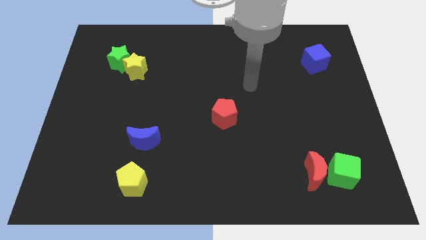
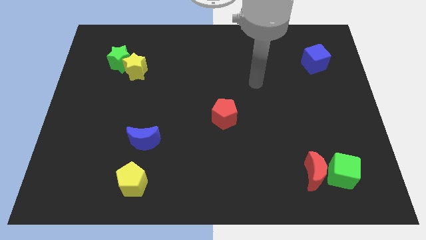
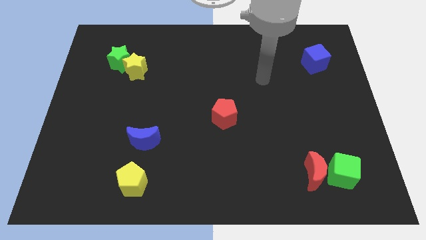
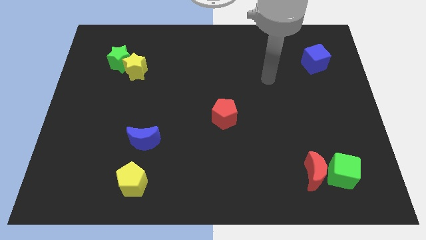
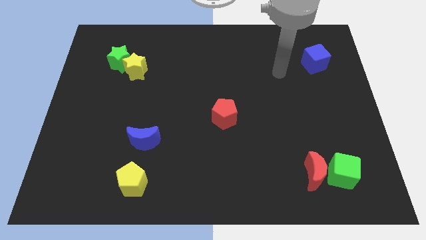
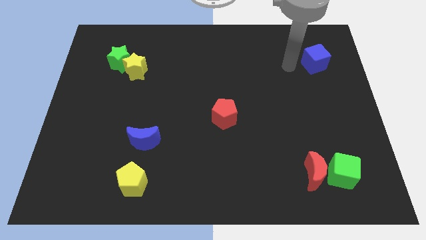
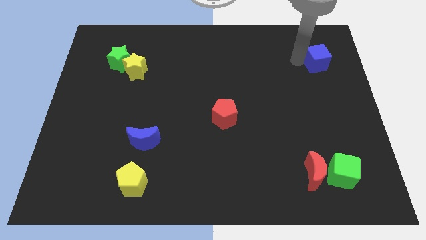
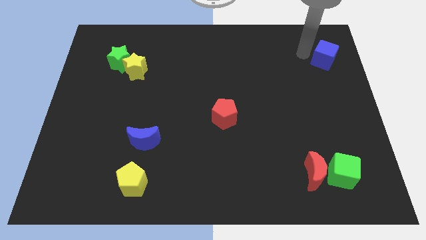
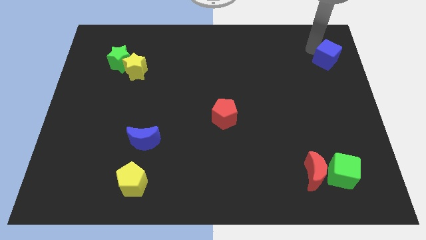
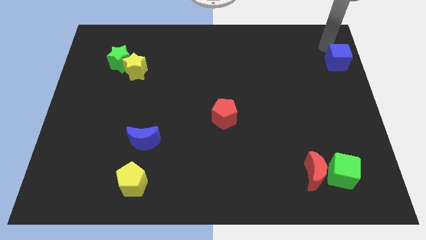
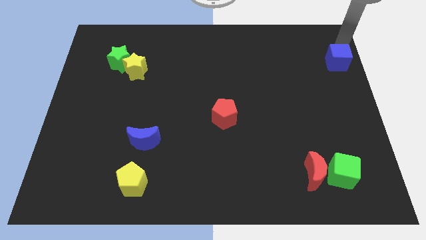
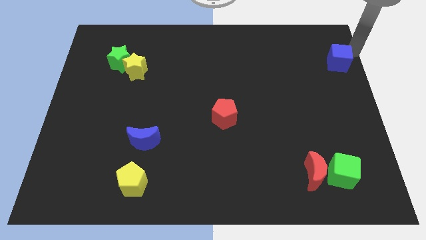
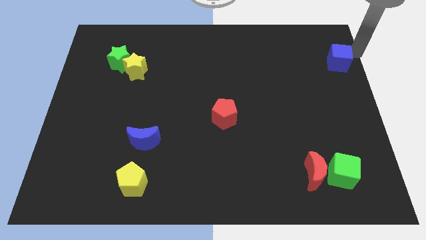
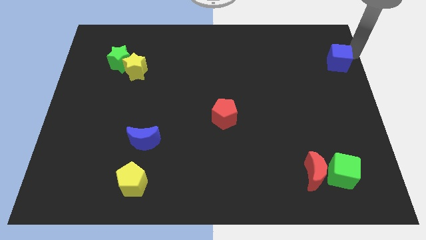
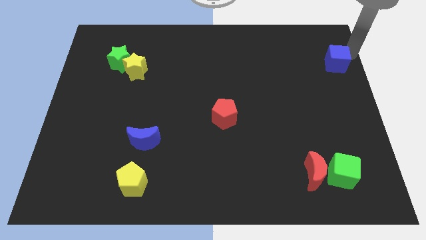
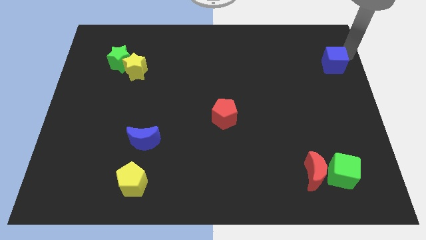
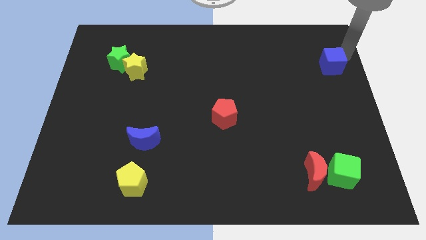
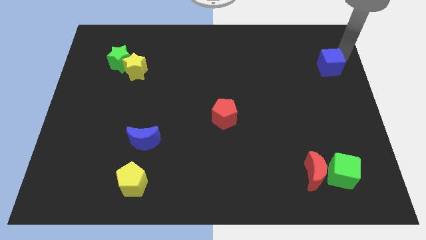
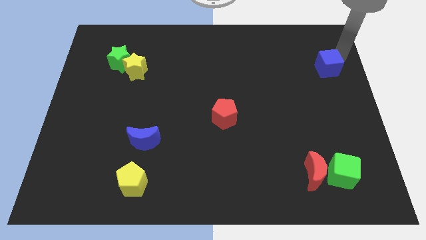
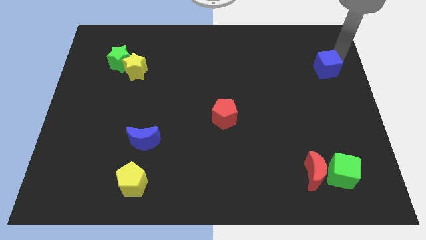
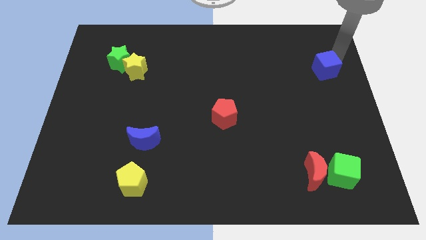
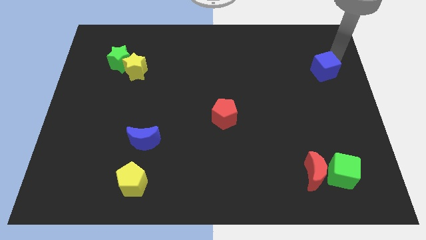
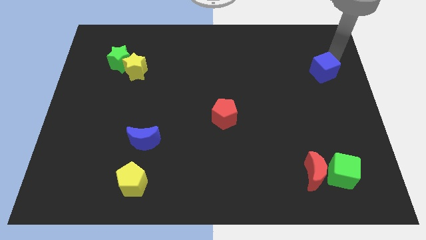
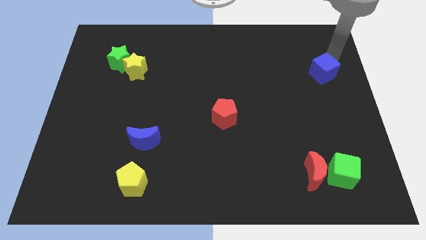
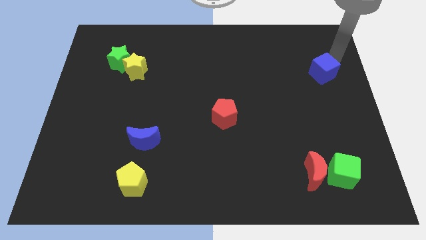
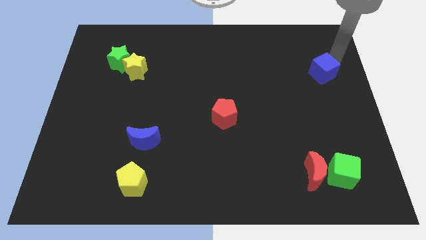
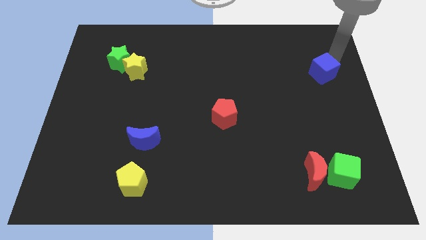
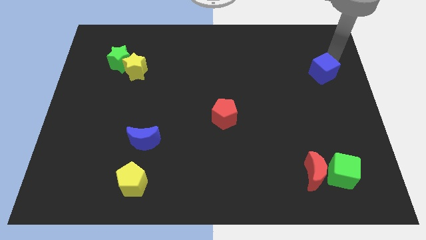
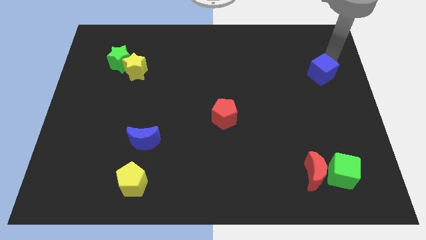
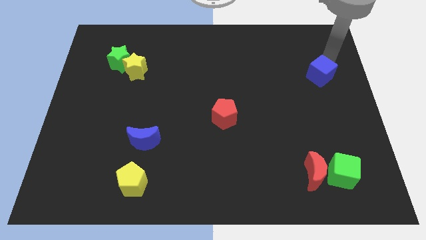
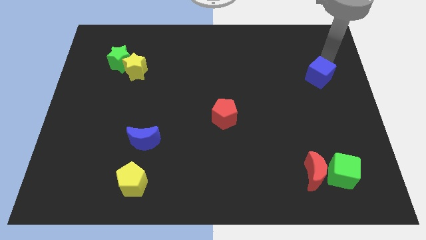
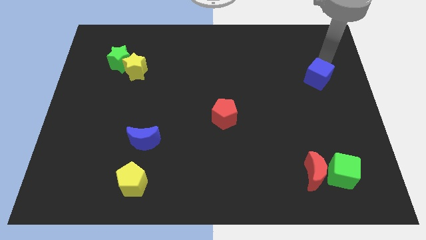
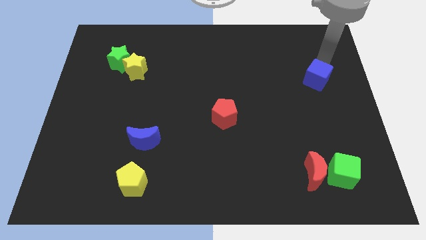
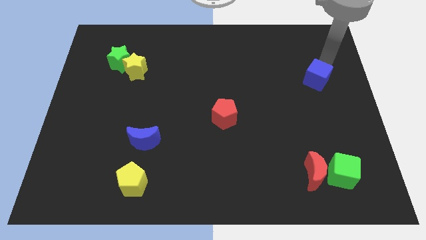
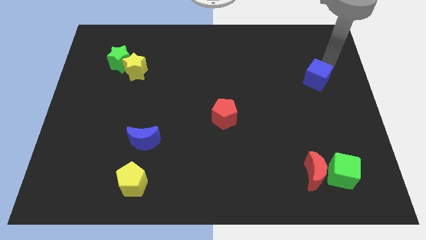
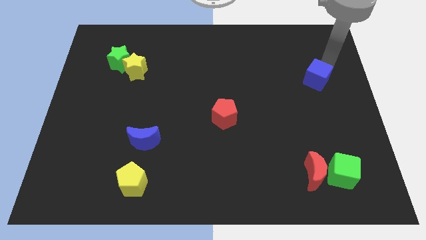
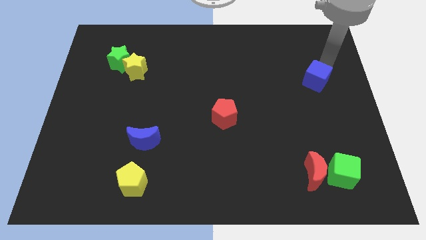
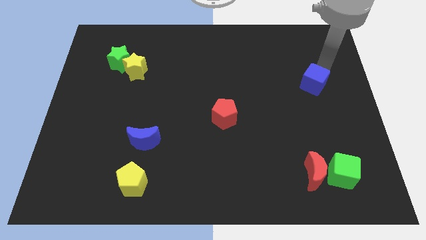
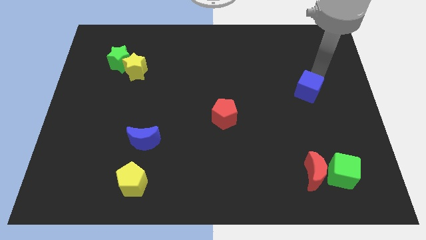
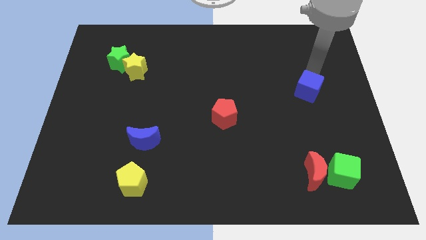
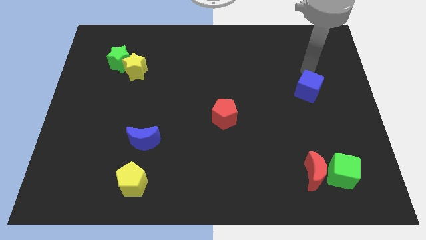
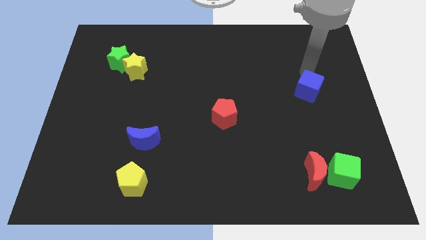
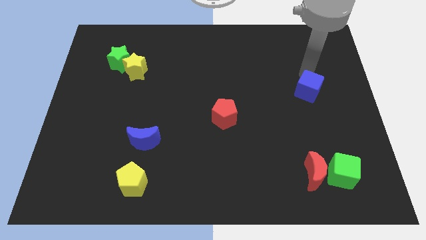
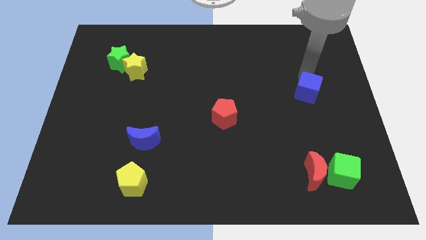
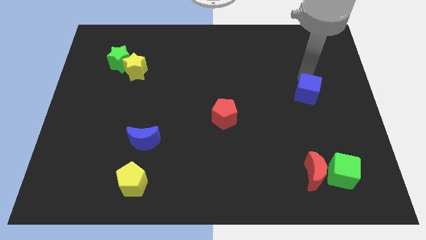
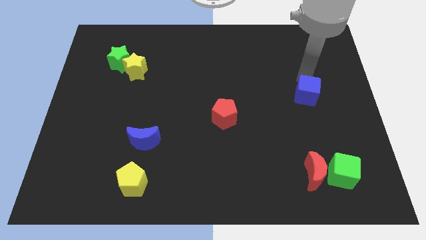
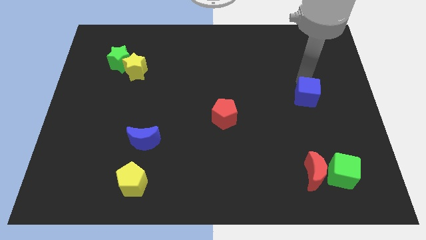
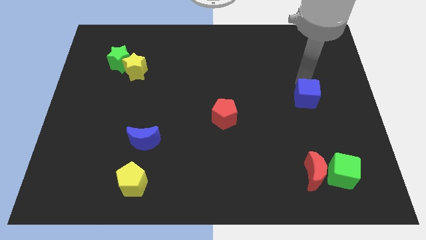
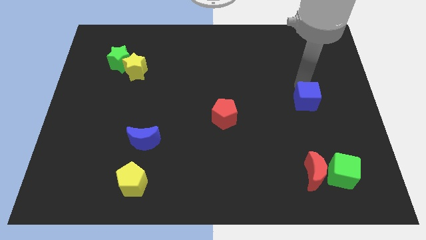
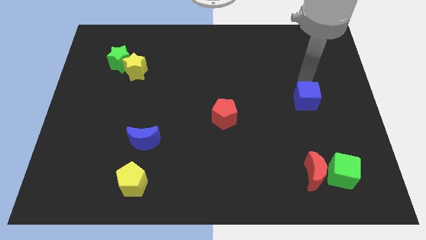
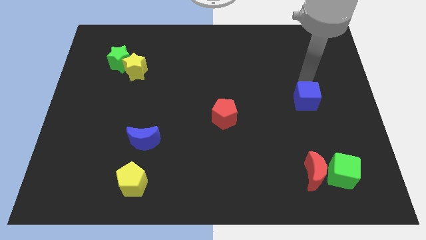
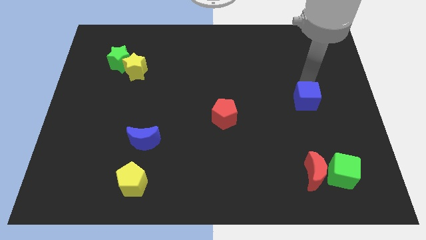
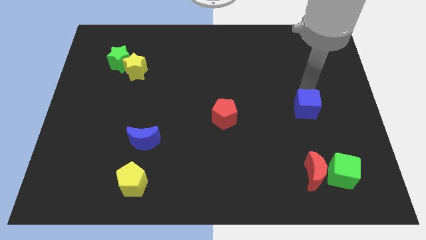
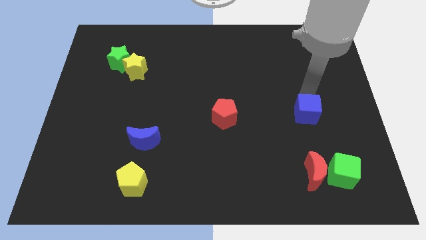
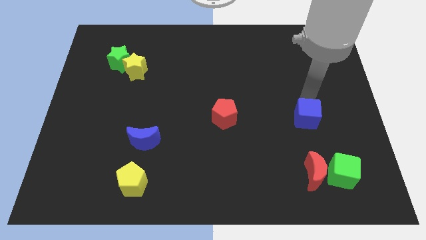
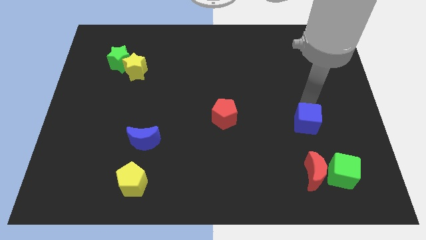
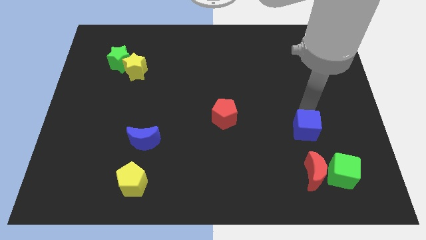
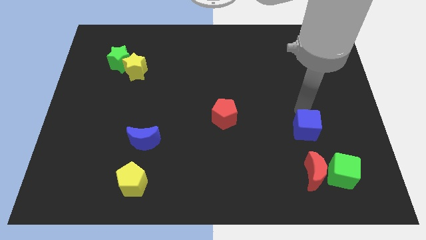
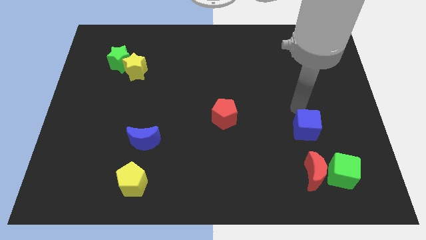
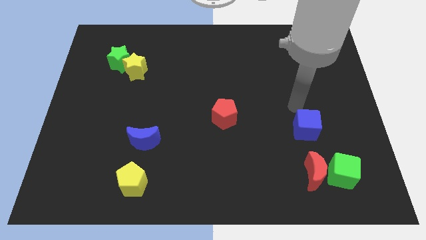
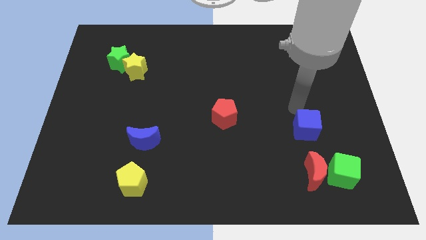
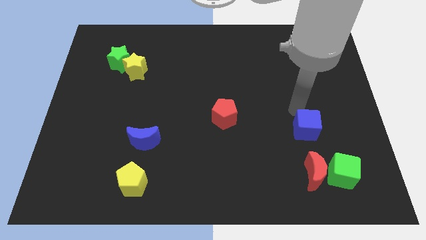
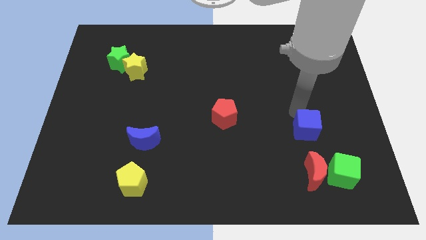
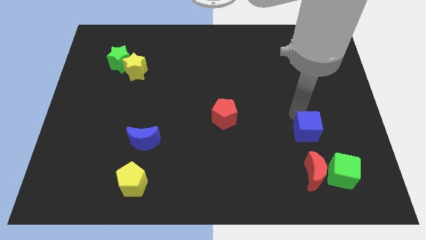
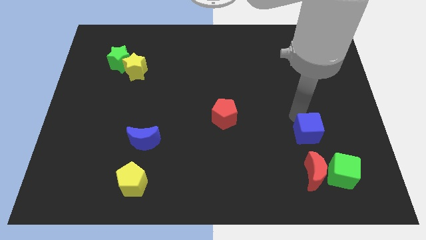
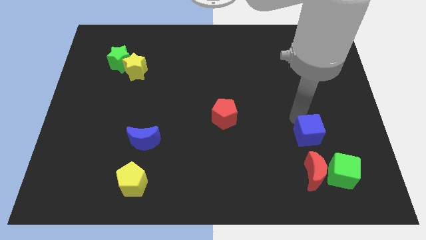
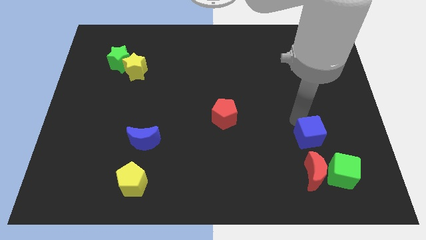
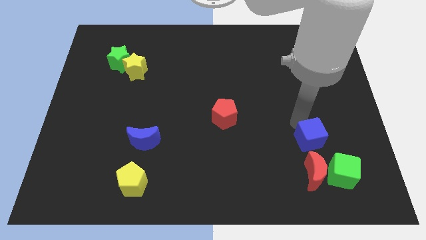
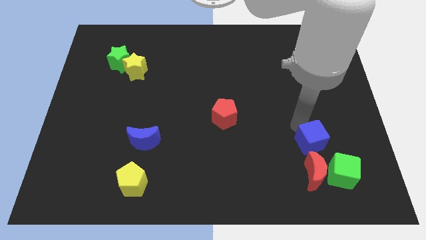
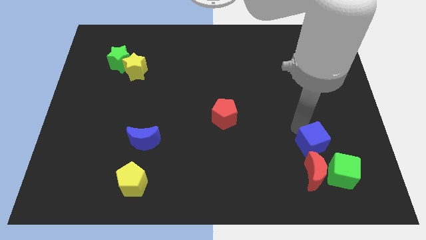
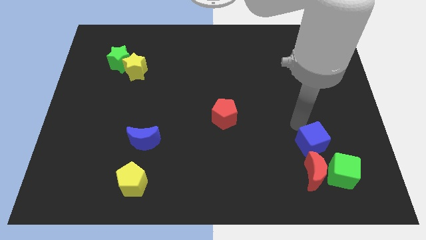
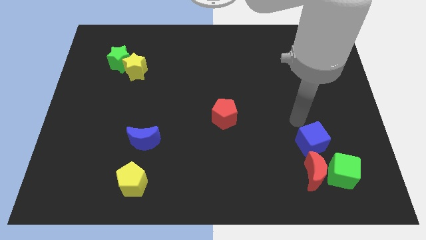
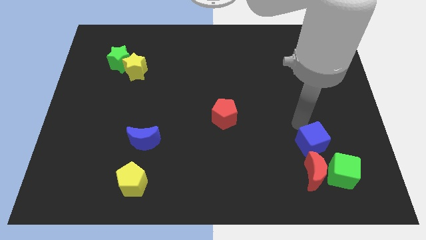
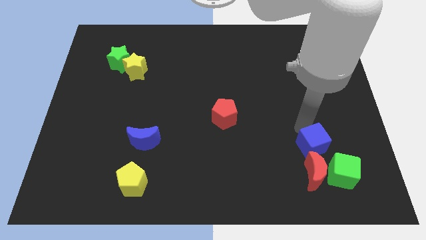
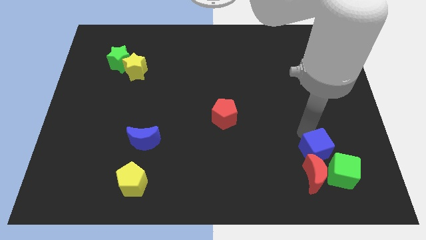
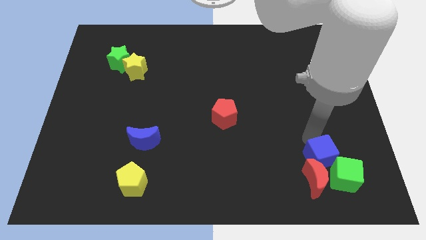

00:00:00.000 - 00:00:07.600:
slide the blue cube close to the red moon
